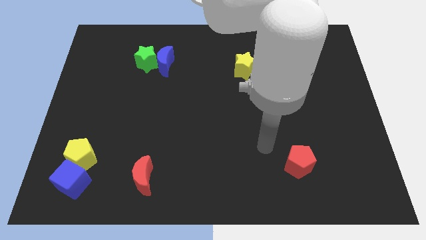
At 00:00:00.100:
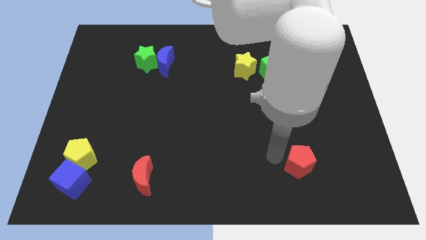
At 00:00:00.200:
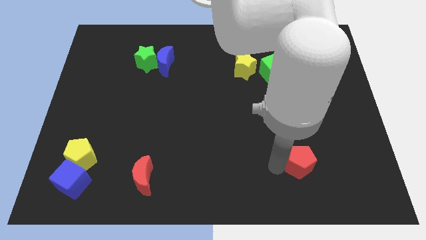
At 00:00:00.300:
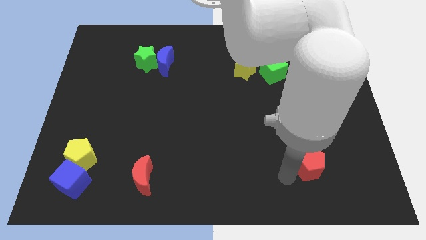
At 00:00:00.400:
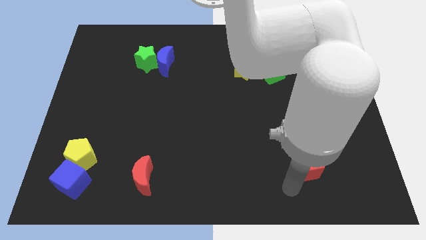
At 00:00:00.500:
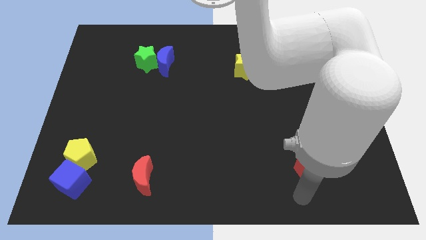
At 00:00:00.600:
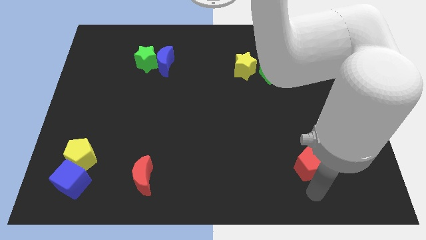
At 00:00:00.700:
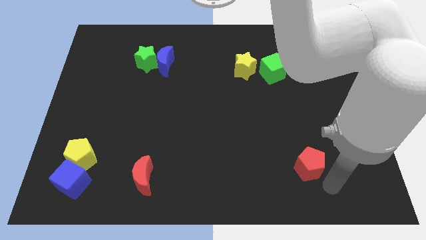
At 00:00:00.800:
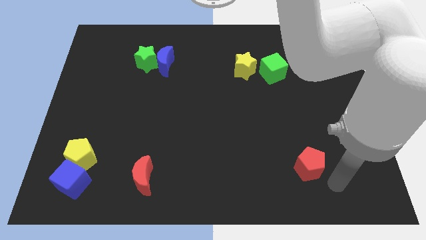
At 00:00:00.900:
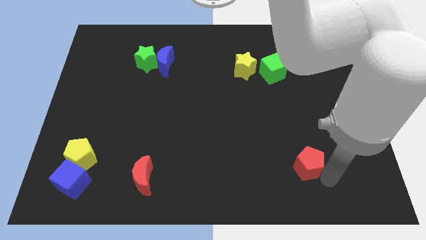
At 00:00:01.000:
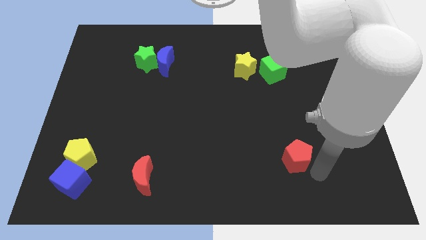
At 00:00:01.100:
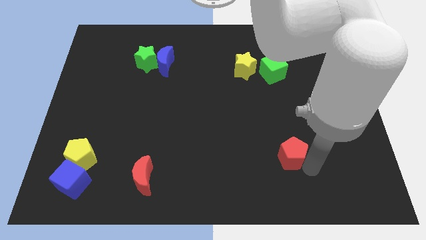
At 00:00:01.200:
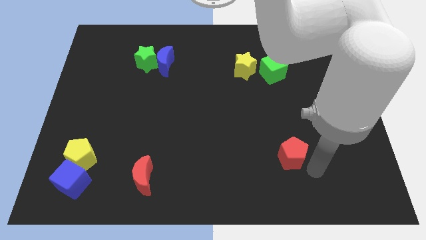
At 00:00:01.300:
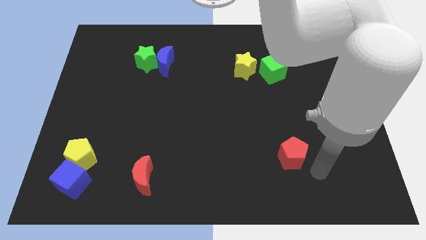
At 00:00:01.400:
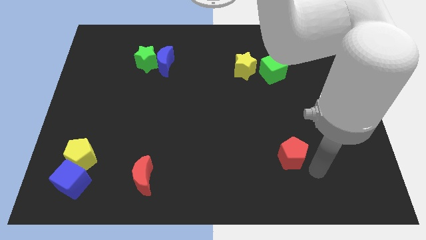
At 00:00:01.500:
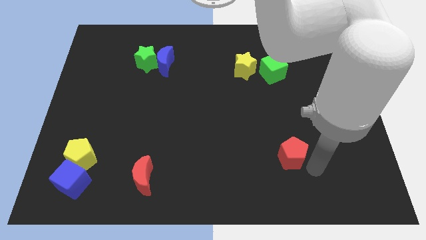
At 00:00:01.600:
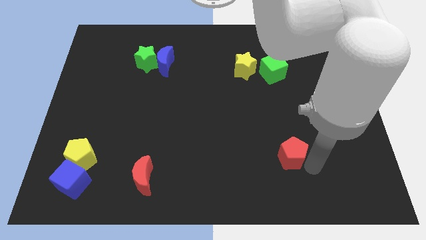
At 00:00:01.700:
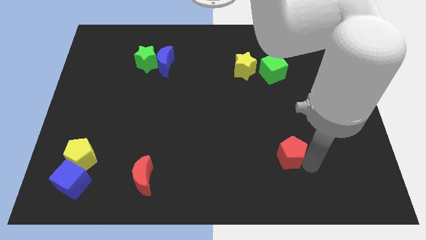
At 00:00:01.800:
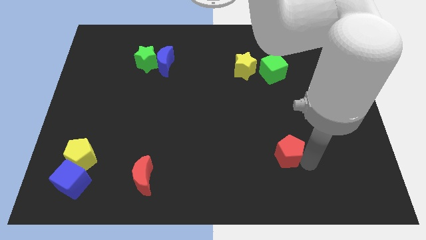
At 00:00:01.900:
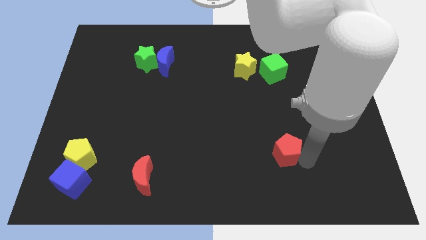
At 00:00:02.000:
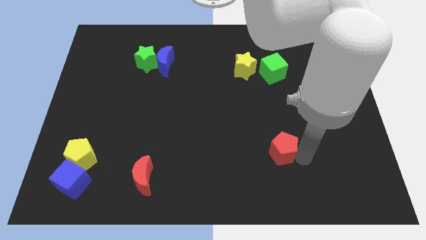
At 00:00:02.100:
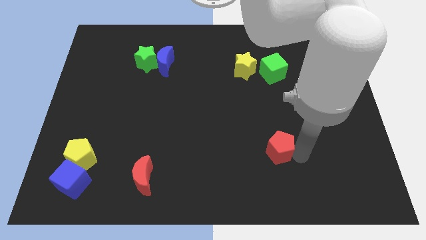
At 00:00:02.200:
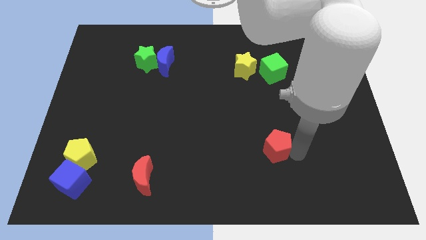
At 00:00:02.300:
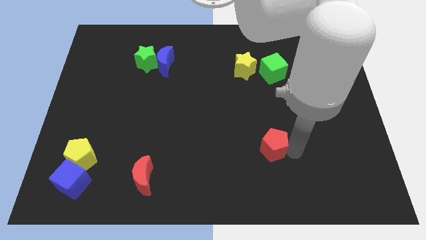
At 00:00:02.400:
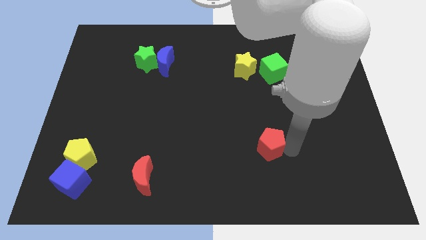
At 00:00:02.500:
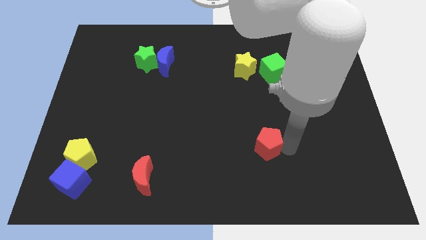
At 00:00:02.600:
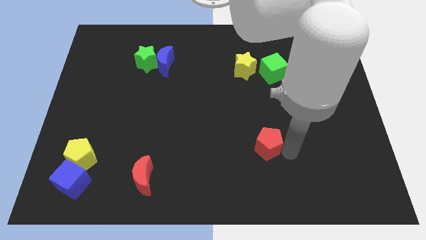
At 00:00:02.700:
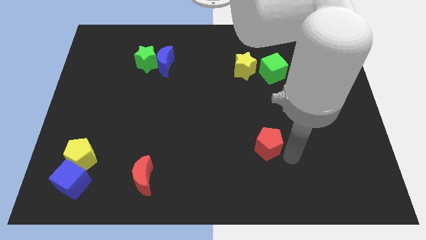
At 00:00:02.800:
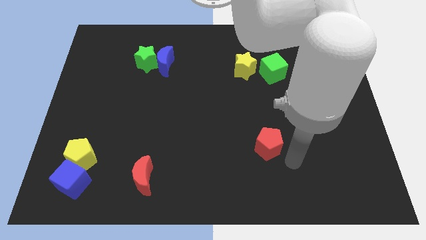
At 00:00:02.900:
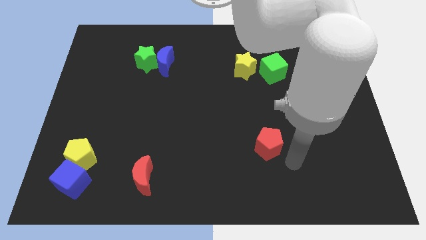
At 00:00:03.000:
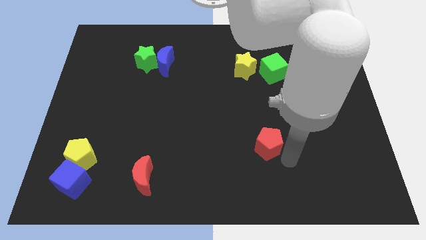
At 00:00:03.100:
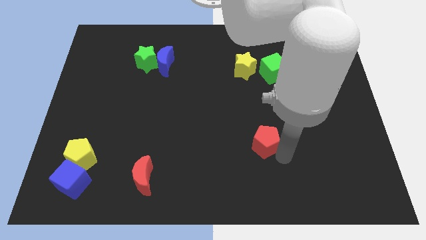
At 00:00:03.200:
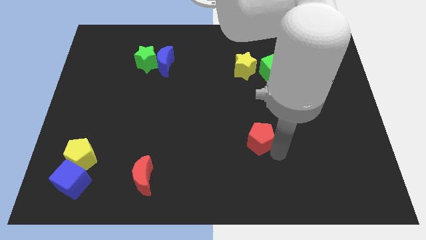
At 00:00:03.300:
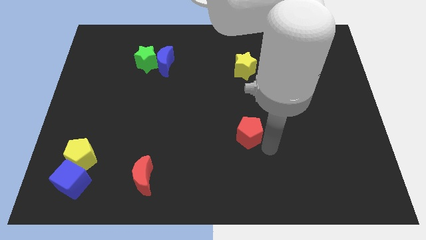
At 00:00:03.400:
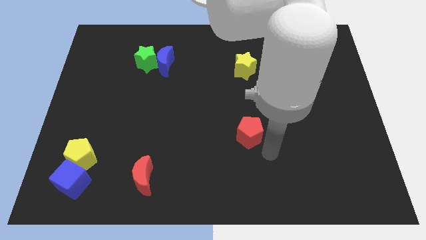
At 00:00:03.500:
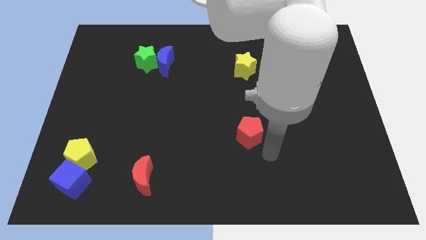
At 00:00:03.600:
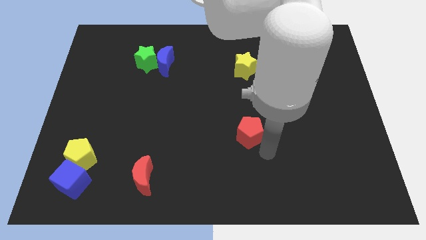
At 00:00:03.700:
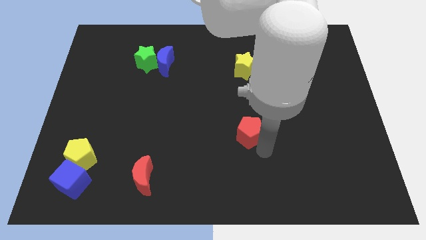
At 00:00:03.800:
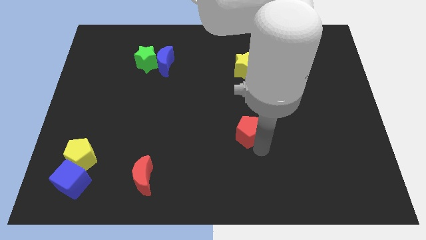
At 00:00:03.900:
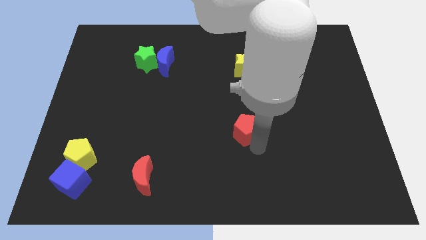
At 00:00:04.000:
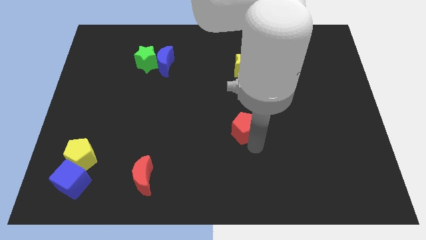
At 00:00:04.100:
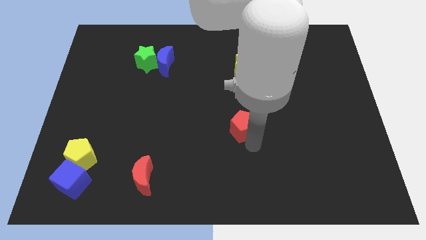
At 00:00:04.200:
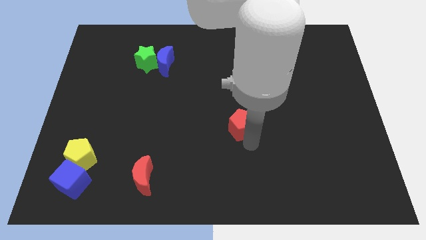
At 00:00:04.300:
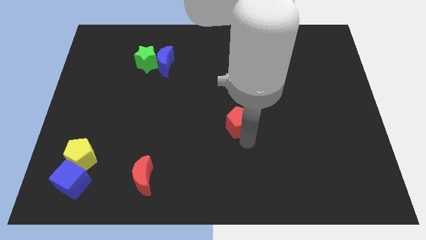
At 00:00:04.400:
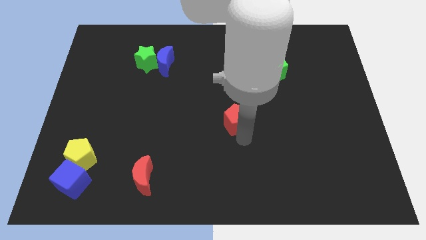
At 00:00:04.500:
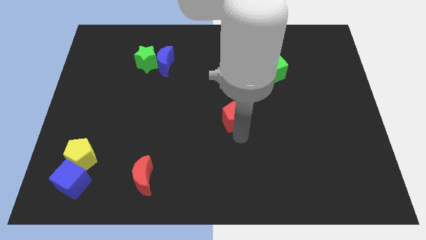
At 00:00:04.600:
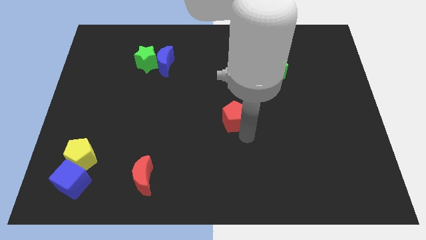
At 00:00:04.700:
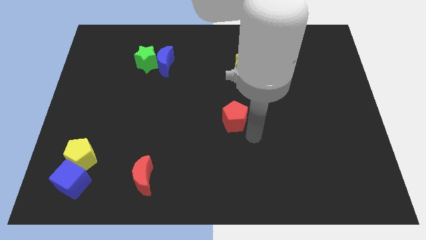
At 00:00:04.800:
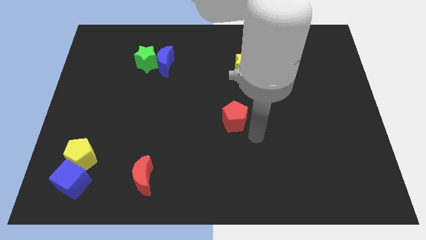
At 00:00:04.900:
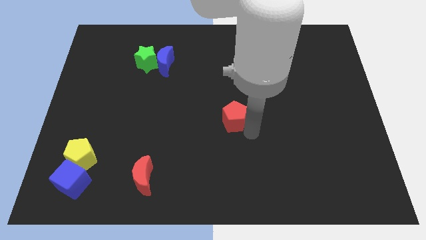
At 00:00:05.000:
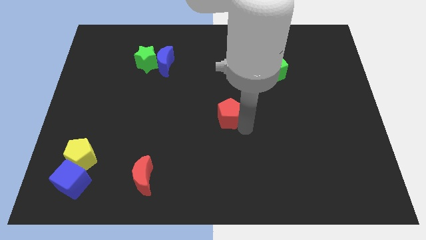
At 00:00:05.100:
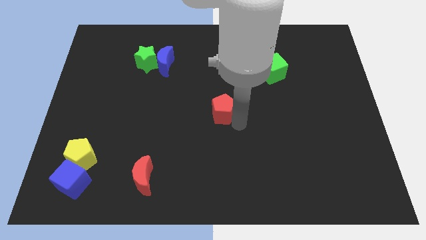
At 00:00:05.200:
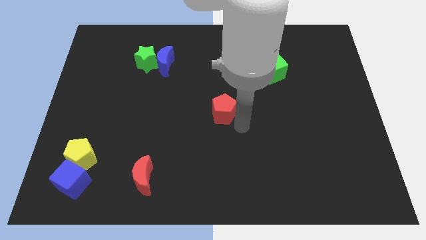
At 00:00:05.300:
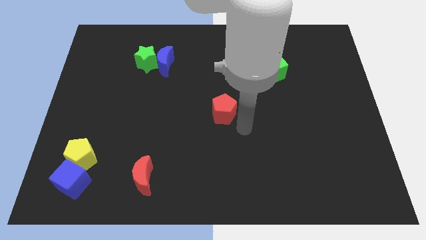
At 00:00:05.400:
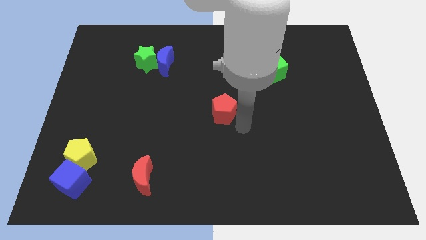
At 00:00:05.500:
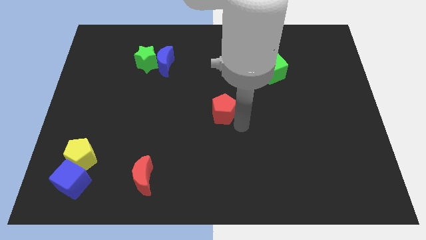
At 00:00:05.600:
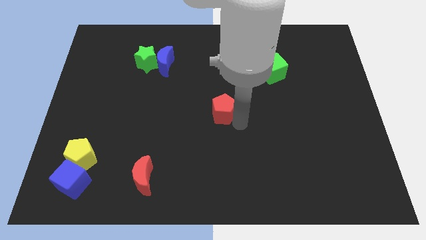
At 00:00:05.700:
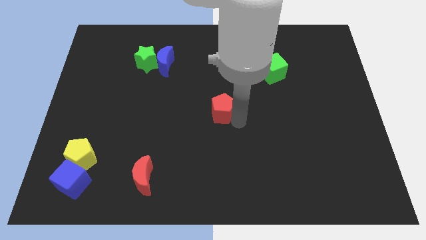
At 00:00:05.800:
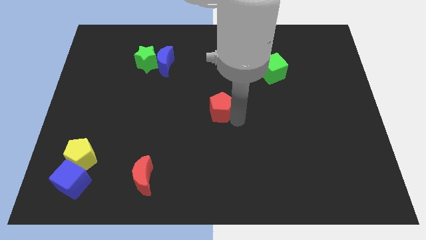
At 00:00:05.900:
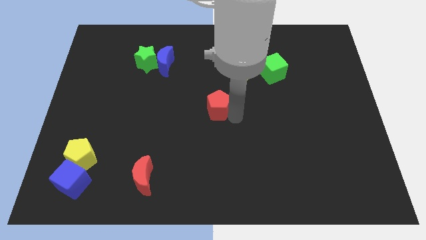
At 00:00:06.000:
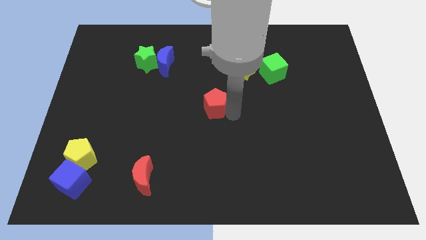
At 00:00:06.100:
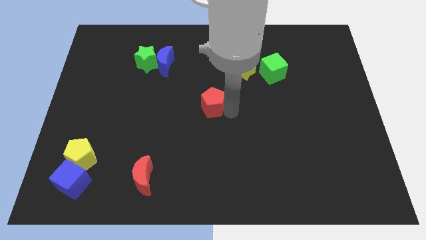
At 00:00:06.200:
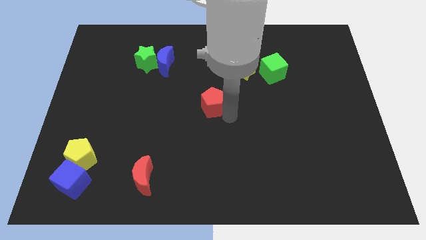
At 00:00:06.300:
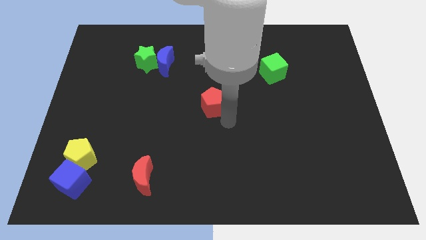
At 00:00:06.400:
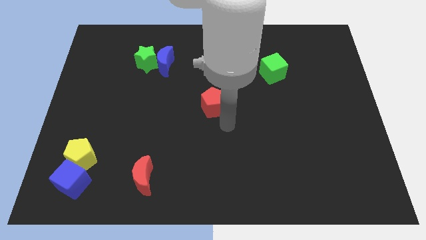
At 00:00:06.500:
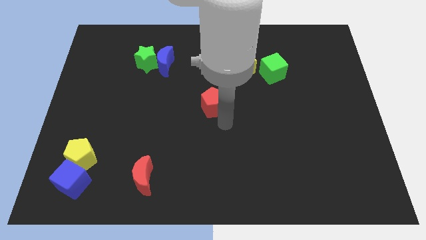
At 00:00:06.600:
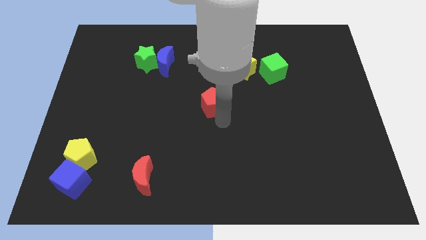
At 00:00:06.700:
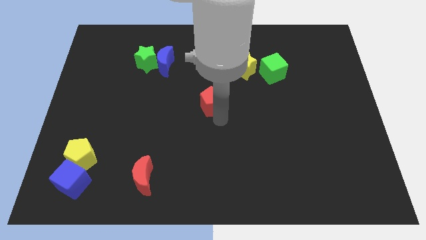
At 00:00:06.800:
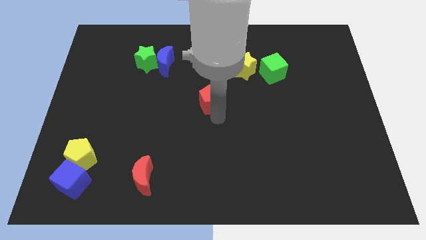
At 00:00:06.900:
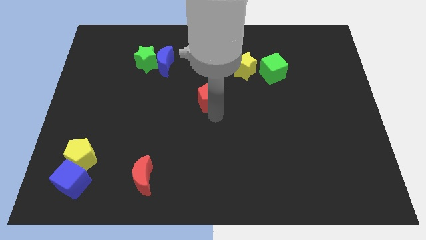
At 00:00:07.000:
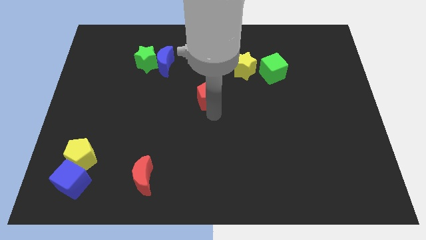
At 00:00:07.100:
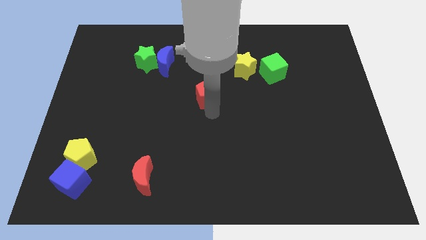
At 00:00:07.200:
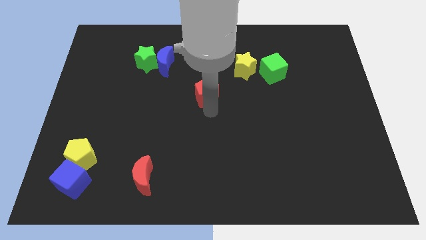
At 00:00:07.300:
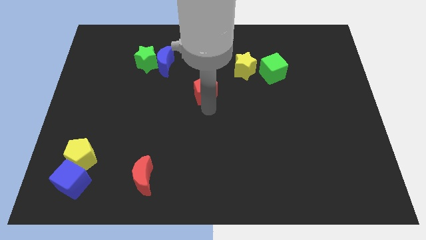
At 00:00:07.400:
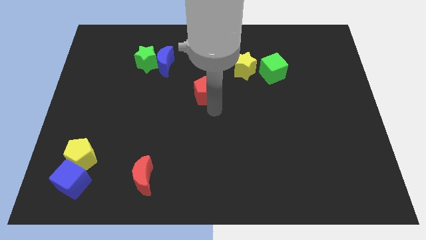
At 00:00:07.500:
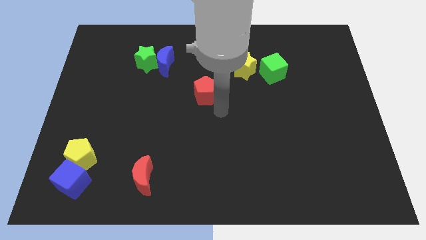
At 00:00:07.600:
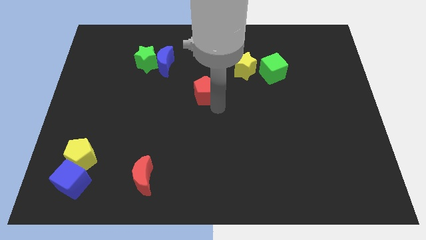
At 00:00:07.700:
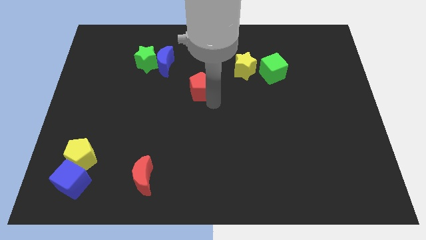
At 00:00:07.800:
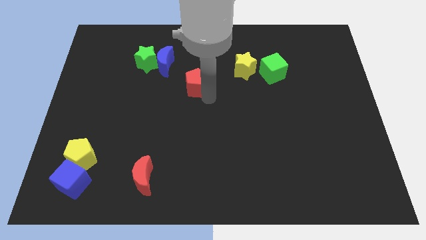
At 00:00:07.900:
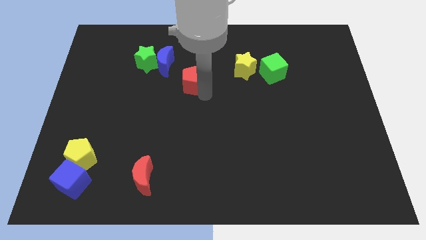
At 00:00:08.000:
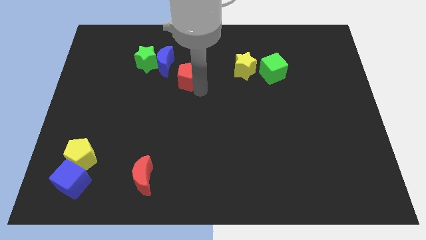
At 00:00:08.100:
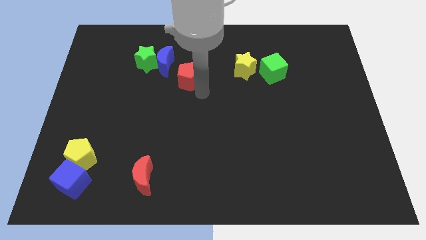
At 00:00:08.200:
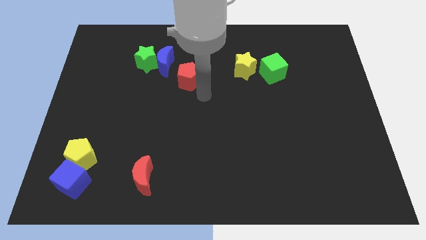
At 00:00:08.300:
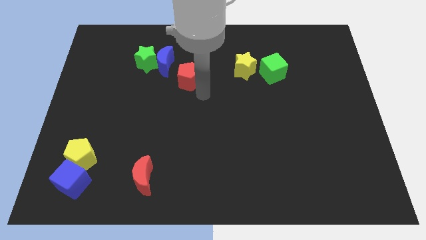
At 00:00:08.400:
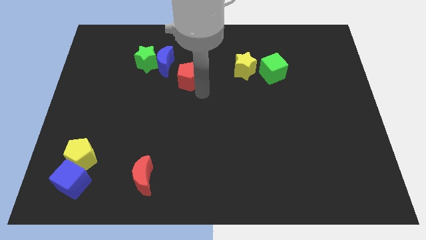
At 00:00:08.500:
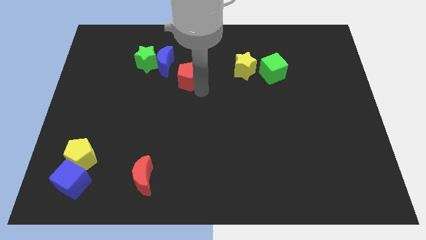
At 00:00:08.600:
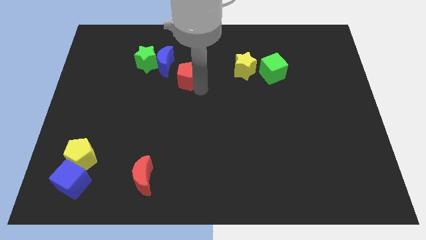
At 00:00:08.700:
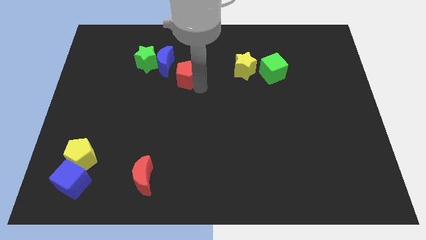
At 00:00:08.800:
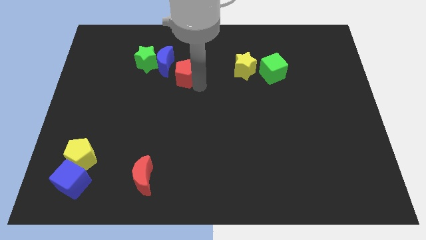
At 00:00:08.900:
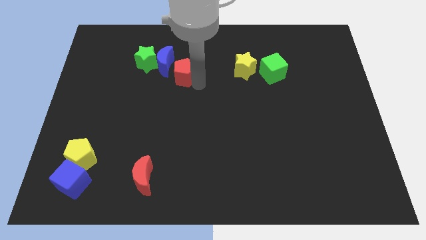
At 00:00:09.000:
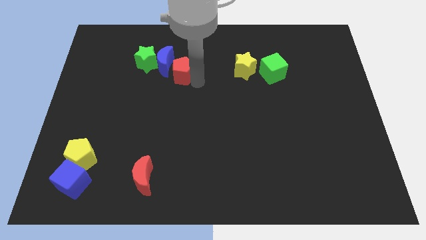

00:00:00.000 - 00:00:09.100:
put the red pentagon to the blue moon
